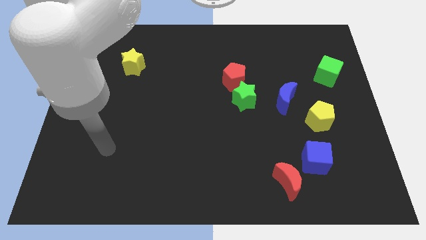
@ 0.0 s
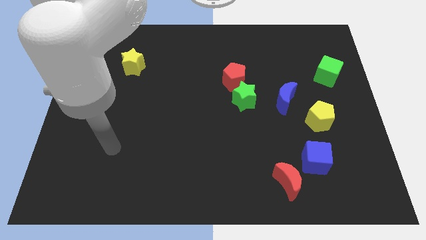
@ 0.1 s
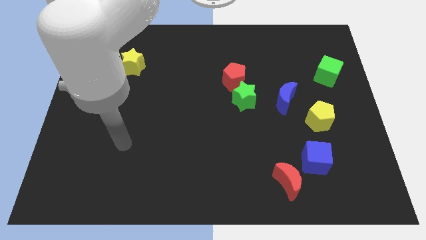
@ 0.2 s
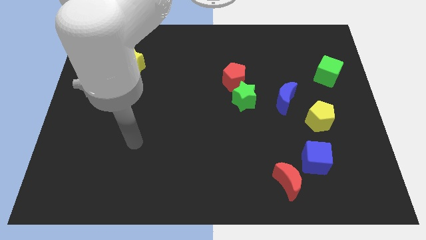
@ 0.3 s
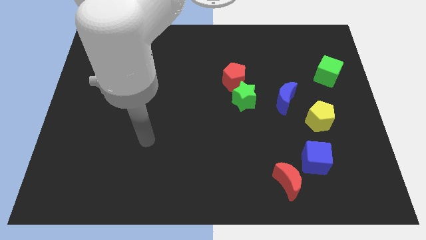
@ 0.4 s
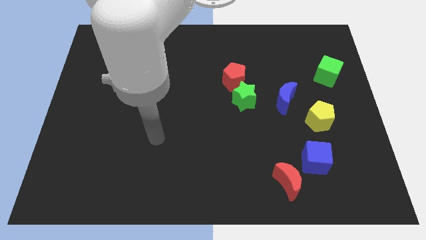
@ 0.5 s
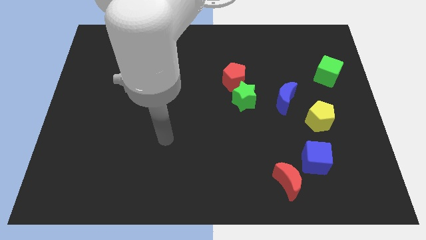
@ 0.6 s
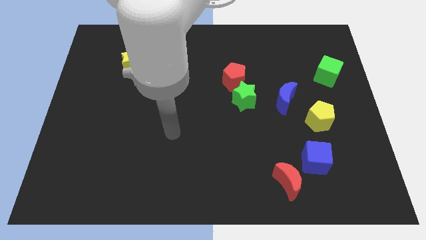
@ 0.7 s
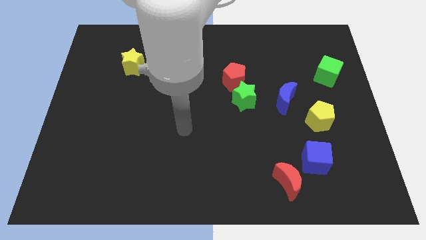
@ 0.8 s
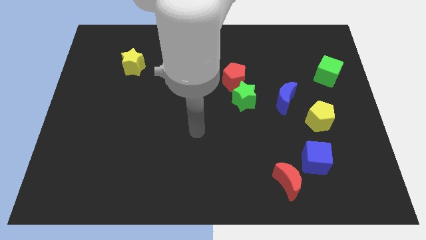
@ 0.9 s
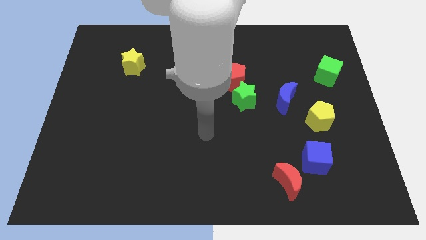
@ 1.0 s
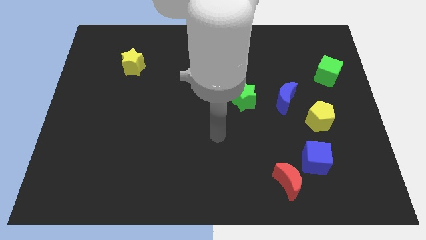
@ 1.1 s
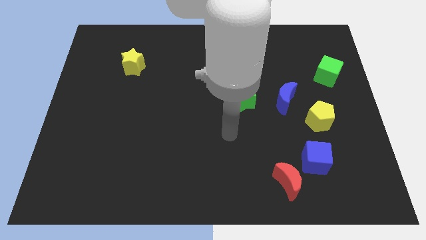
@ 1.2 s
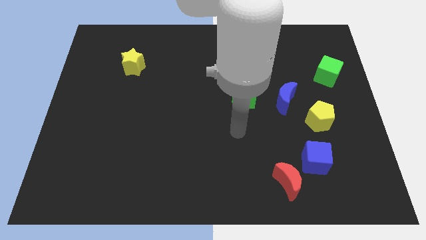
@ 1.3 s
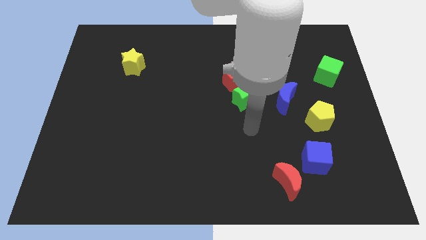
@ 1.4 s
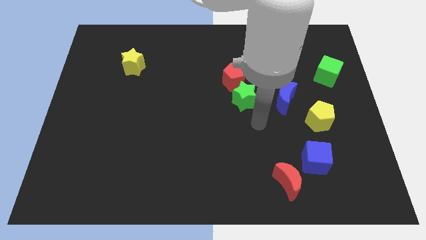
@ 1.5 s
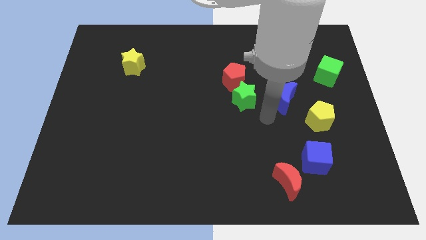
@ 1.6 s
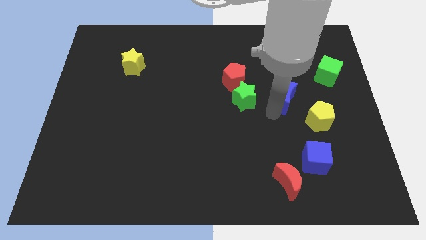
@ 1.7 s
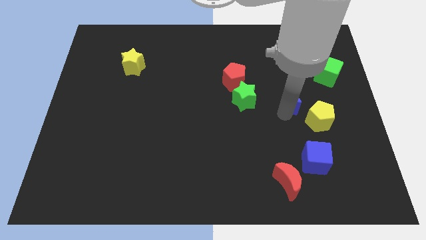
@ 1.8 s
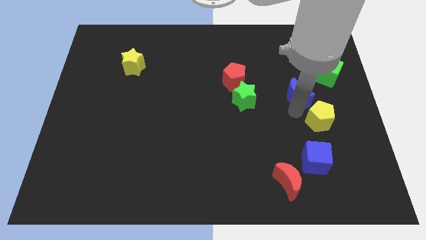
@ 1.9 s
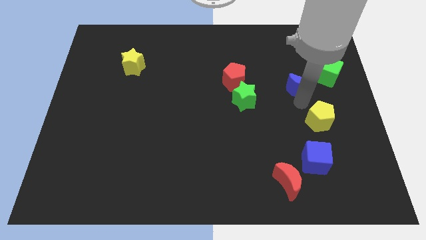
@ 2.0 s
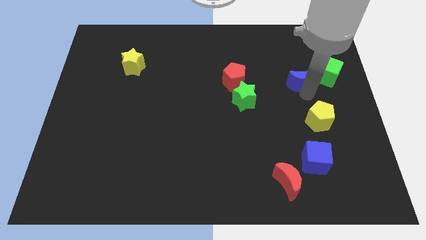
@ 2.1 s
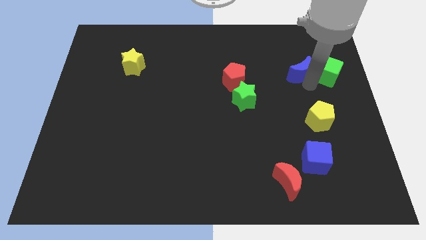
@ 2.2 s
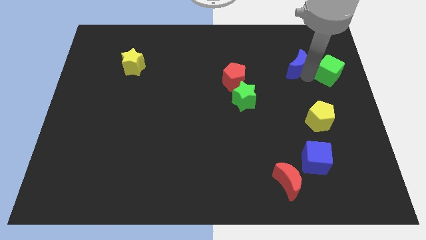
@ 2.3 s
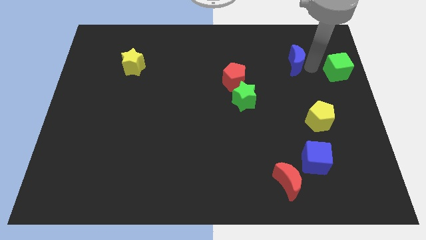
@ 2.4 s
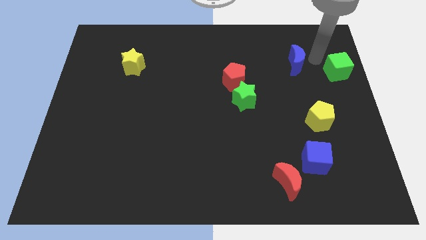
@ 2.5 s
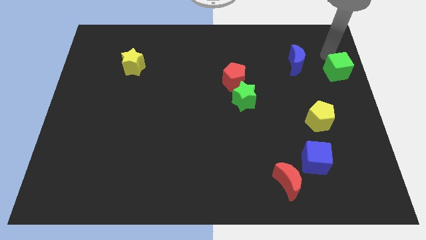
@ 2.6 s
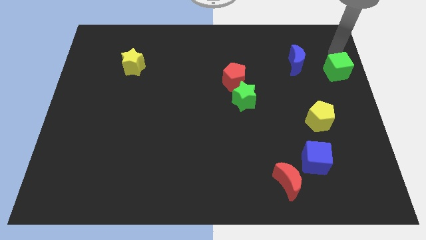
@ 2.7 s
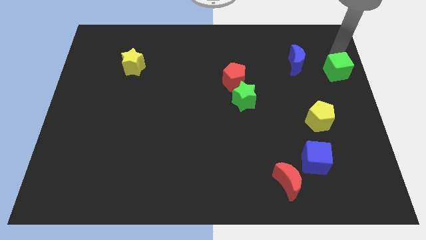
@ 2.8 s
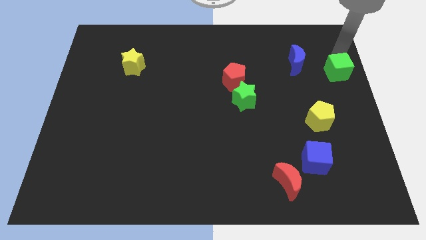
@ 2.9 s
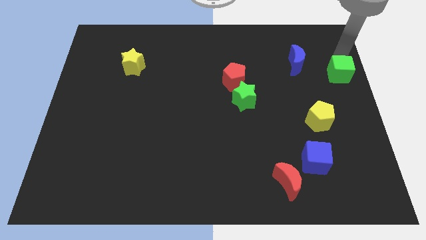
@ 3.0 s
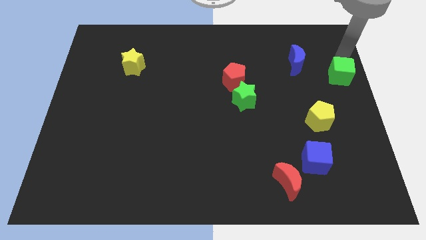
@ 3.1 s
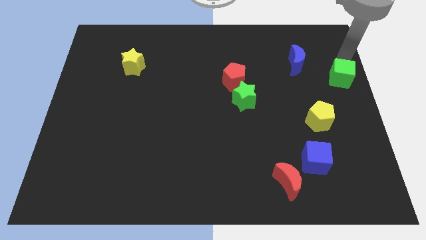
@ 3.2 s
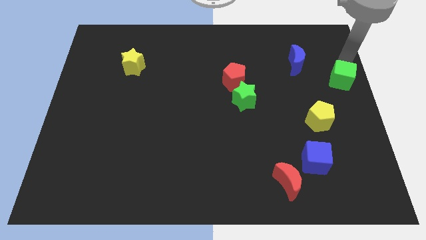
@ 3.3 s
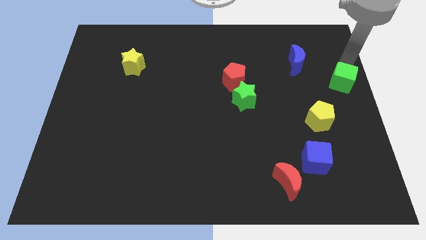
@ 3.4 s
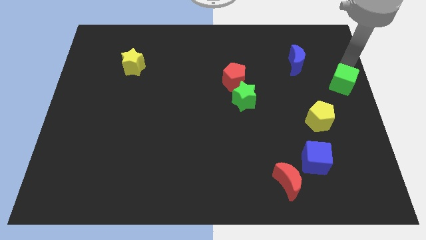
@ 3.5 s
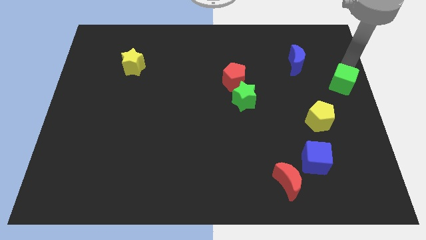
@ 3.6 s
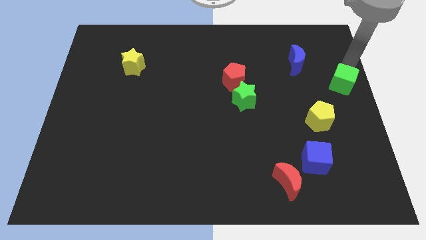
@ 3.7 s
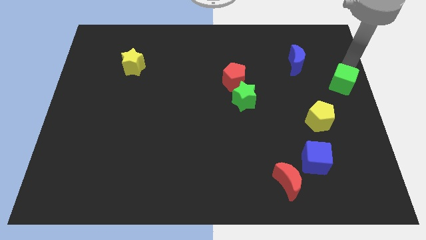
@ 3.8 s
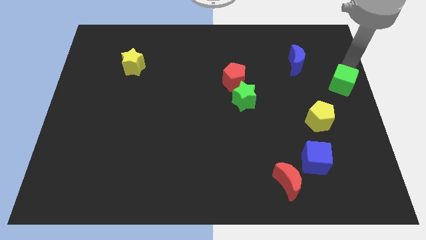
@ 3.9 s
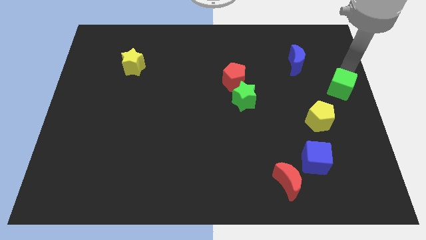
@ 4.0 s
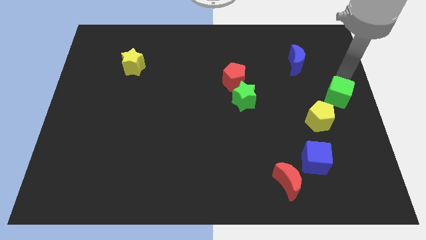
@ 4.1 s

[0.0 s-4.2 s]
move the green cube somewhat downwards

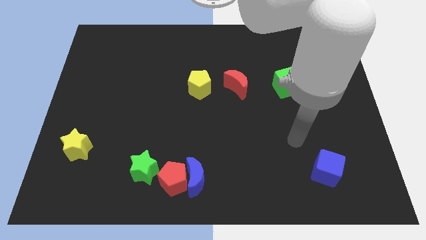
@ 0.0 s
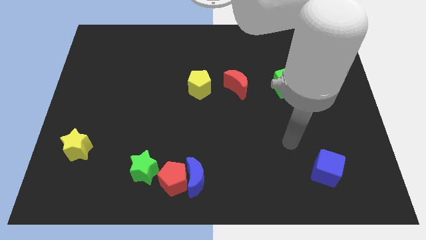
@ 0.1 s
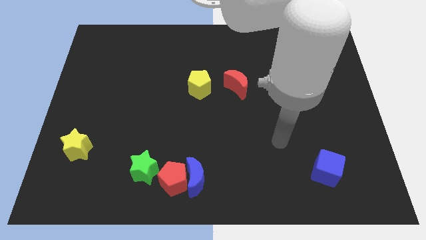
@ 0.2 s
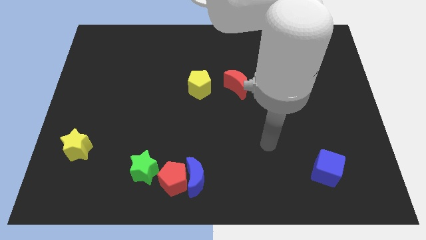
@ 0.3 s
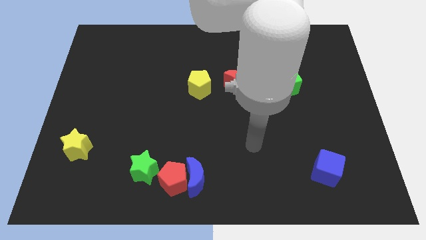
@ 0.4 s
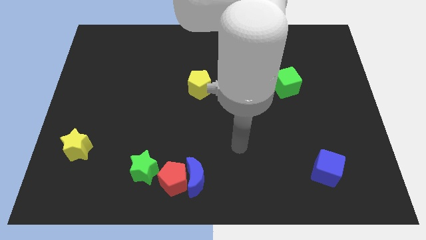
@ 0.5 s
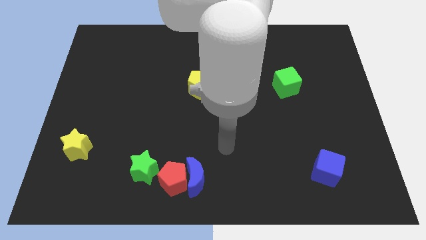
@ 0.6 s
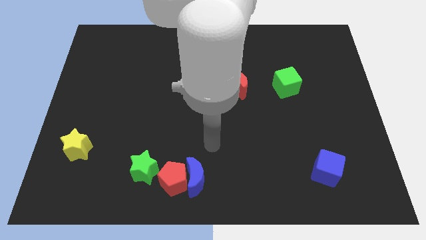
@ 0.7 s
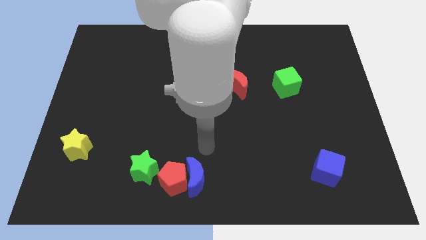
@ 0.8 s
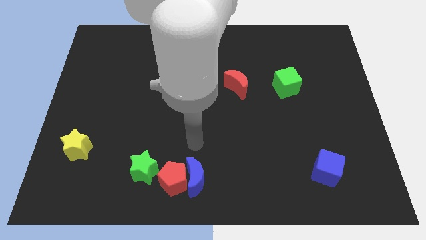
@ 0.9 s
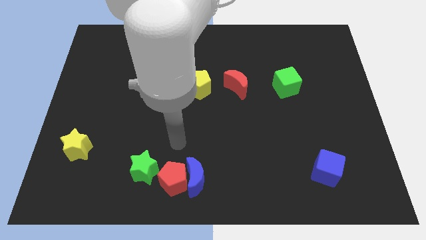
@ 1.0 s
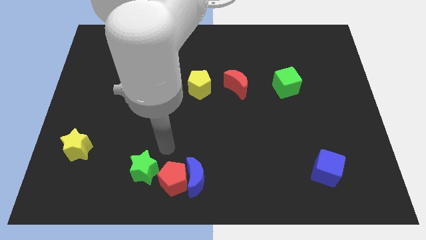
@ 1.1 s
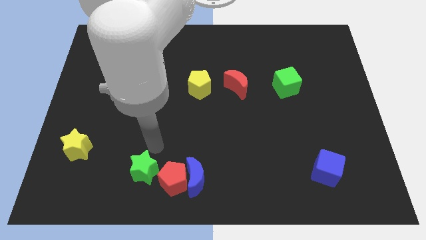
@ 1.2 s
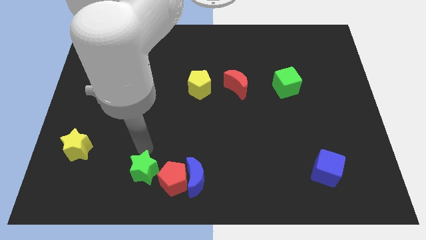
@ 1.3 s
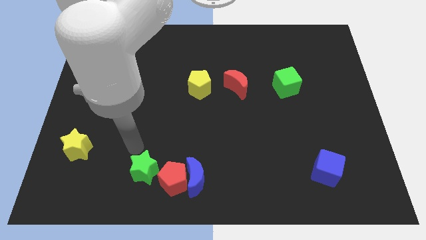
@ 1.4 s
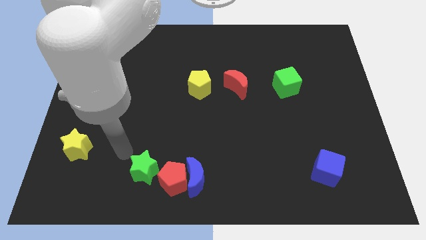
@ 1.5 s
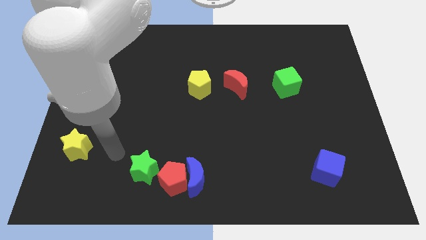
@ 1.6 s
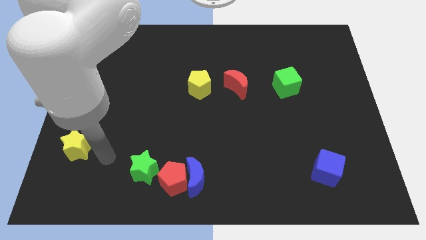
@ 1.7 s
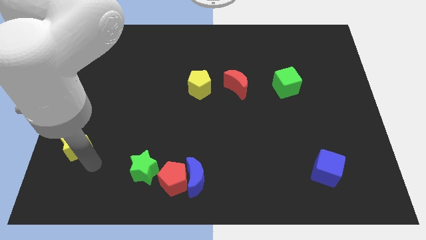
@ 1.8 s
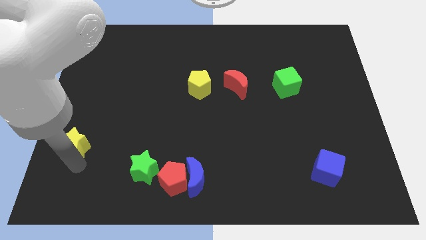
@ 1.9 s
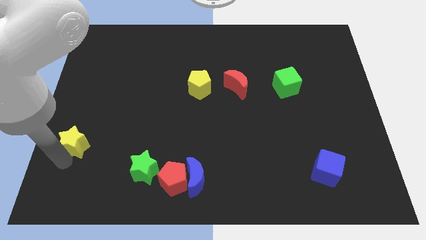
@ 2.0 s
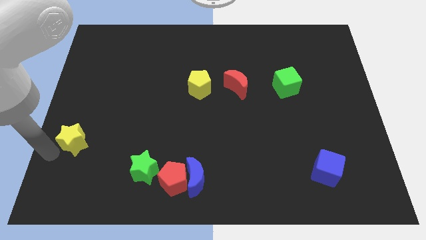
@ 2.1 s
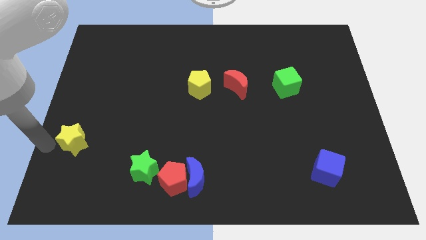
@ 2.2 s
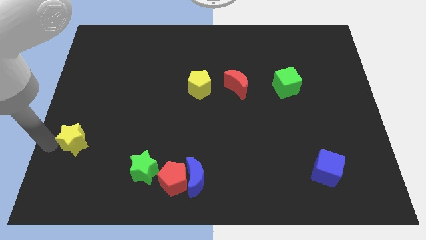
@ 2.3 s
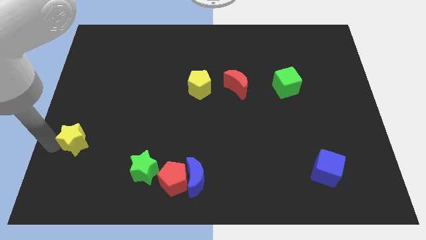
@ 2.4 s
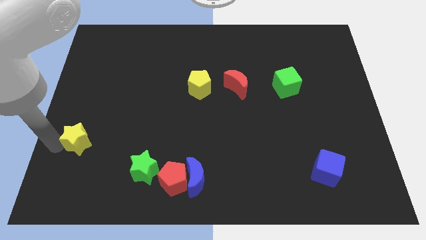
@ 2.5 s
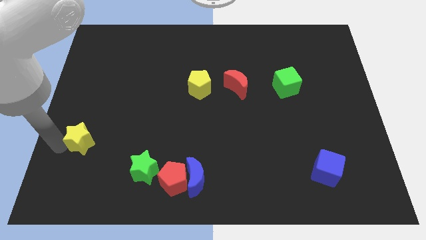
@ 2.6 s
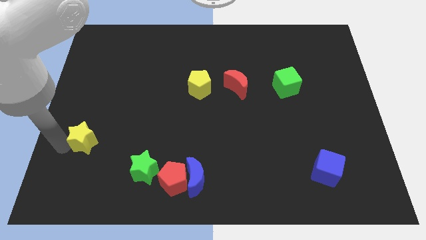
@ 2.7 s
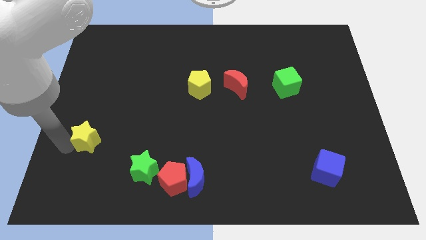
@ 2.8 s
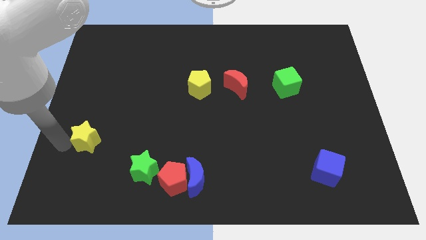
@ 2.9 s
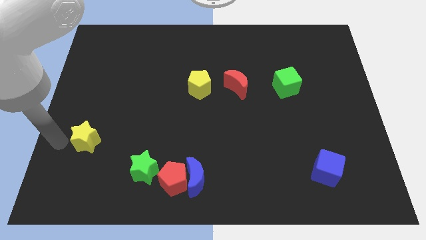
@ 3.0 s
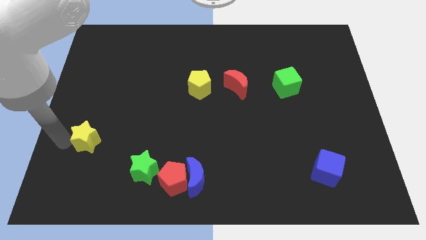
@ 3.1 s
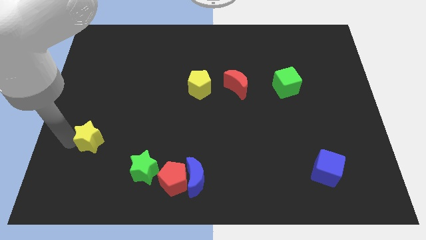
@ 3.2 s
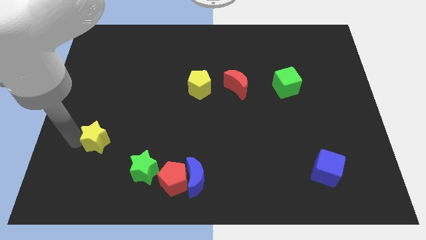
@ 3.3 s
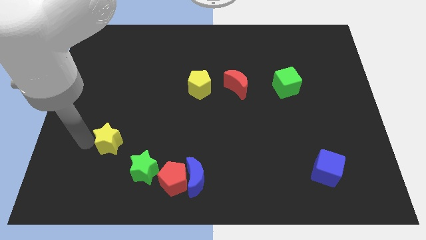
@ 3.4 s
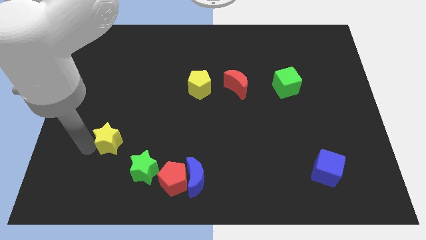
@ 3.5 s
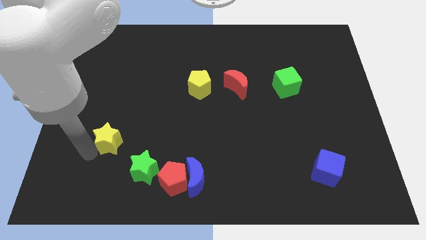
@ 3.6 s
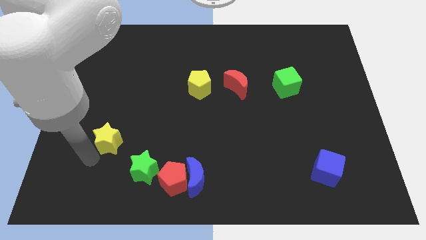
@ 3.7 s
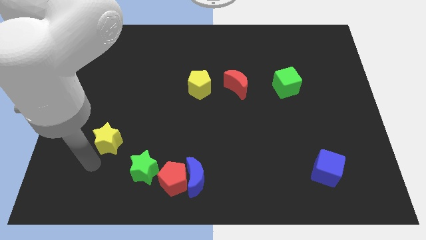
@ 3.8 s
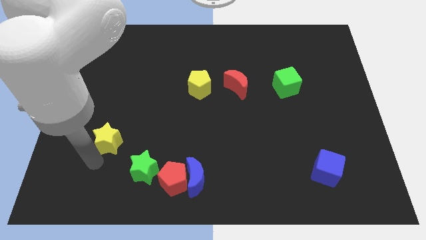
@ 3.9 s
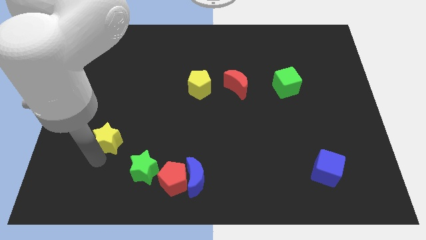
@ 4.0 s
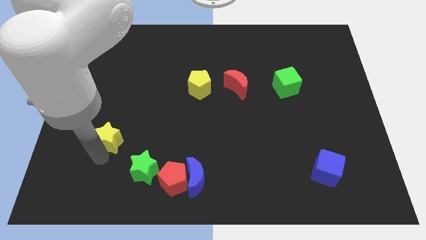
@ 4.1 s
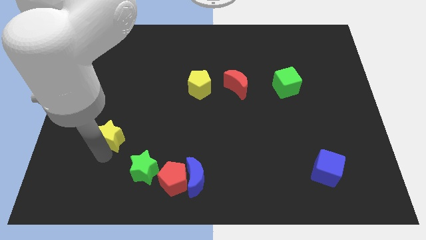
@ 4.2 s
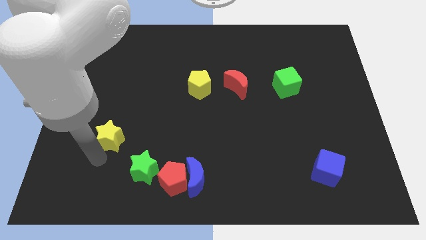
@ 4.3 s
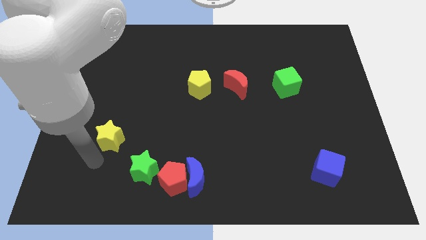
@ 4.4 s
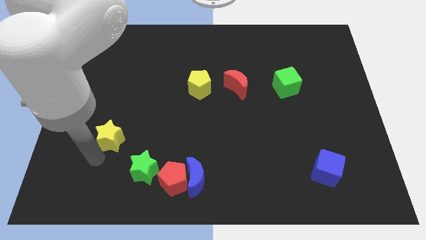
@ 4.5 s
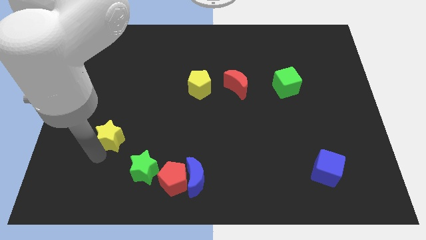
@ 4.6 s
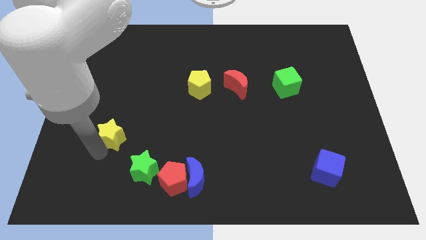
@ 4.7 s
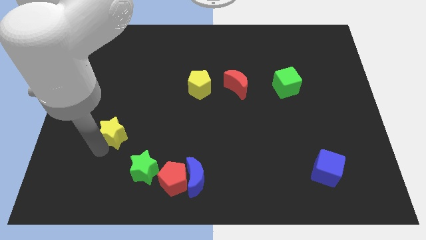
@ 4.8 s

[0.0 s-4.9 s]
slide the yellow star up and right diagonally a little
